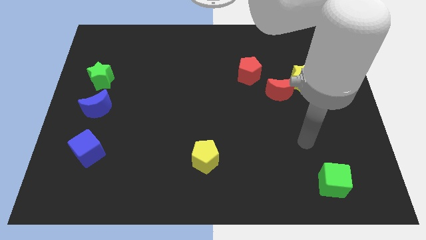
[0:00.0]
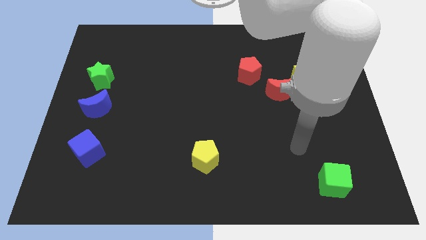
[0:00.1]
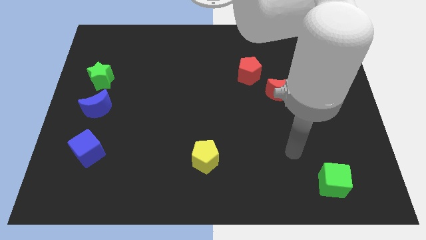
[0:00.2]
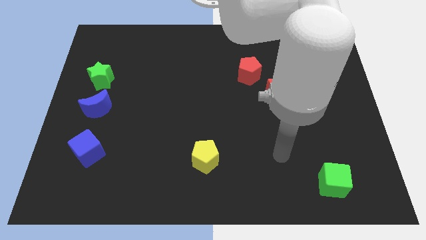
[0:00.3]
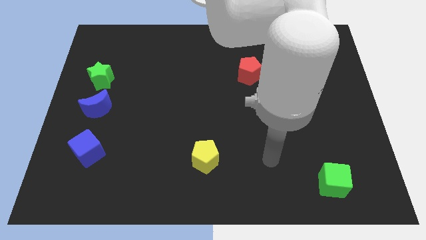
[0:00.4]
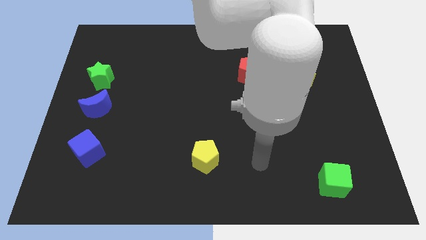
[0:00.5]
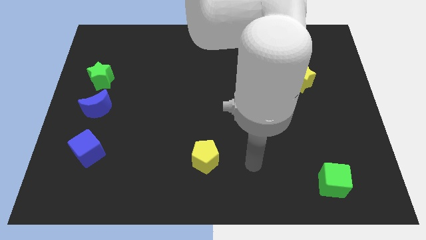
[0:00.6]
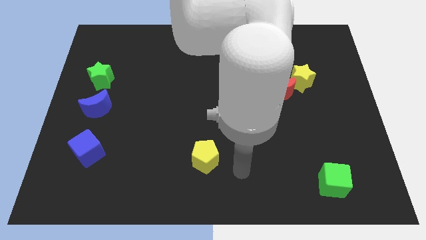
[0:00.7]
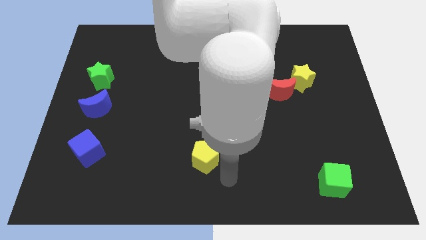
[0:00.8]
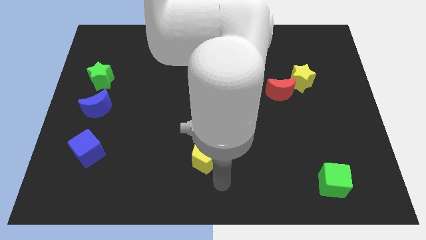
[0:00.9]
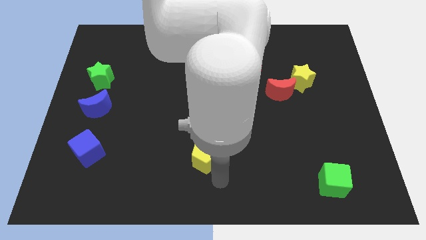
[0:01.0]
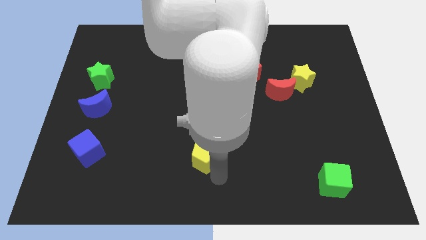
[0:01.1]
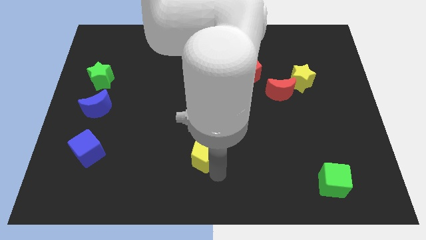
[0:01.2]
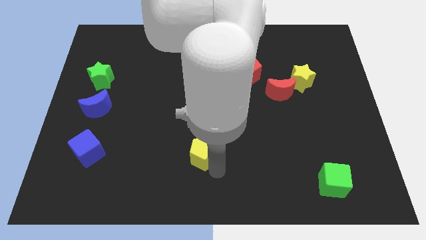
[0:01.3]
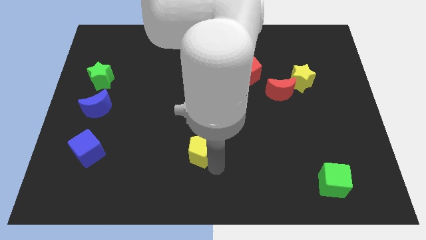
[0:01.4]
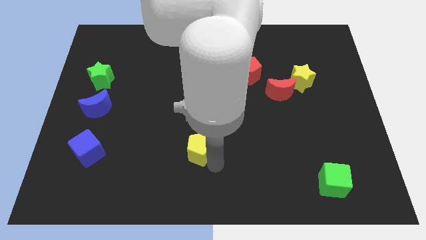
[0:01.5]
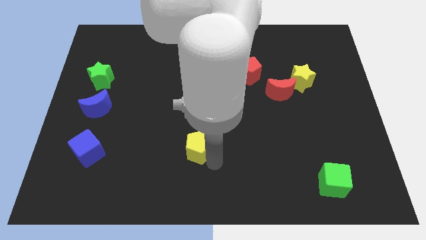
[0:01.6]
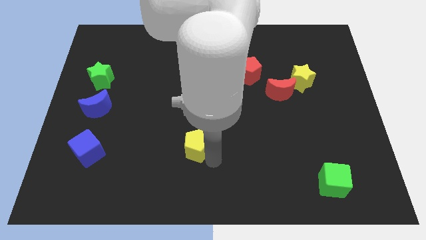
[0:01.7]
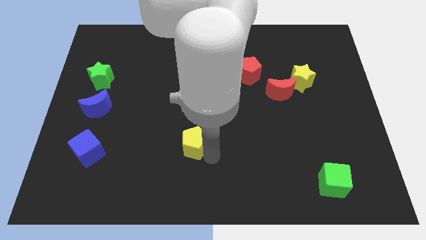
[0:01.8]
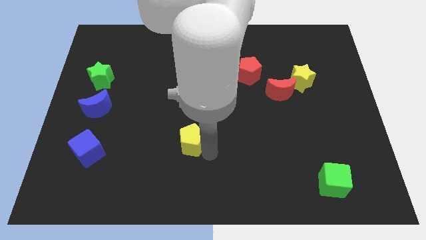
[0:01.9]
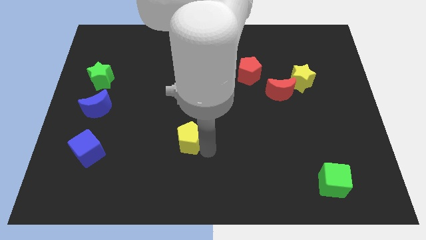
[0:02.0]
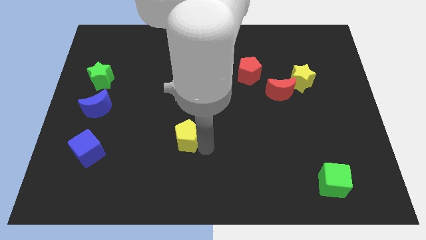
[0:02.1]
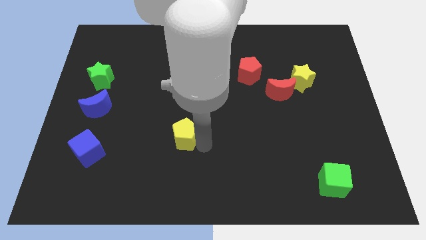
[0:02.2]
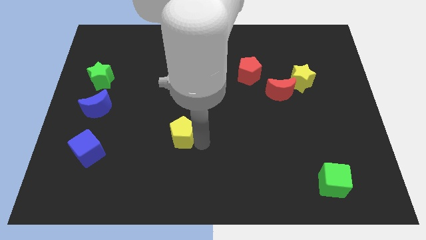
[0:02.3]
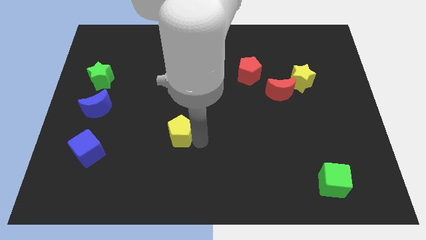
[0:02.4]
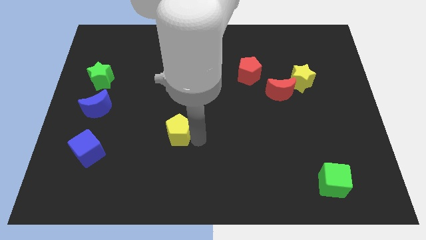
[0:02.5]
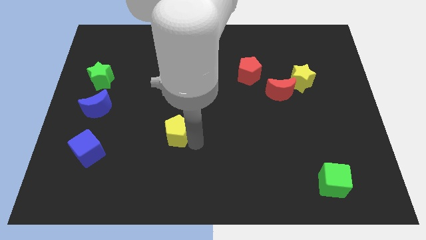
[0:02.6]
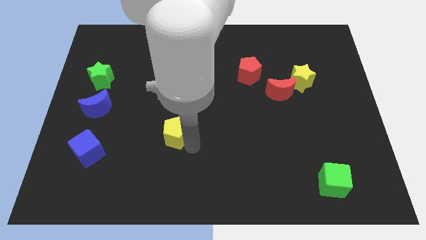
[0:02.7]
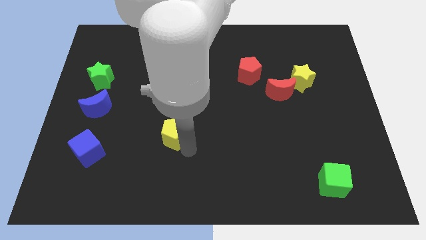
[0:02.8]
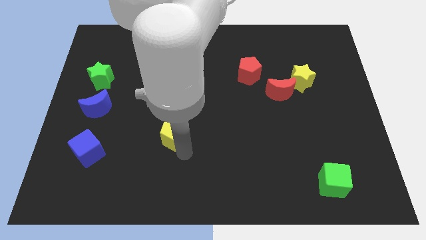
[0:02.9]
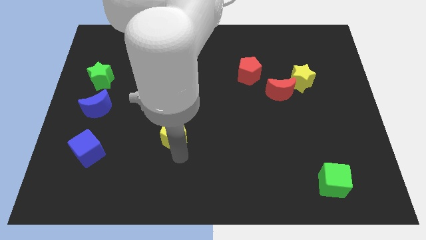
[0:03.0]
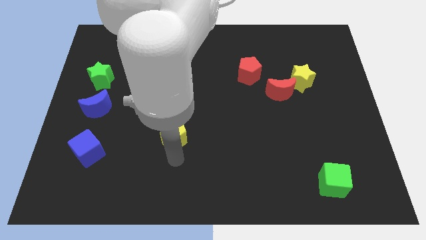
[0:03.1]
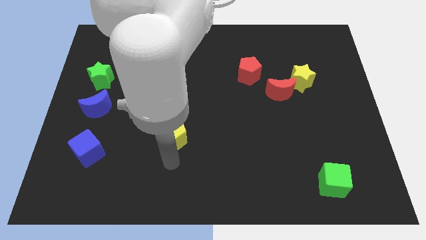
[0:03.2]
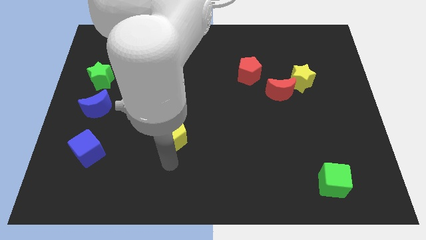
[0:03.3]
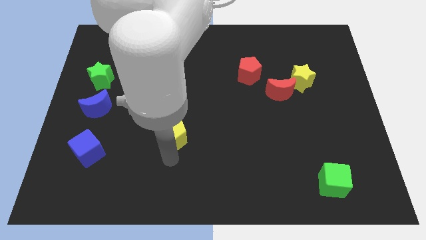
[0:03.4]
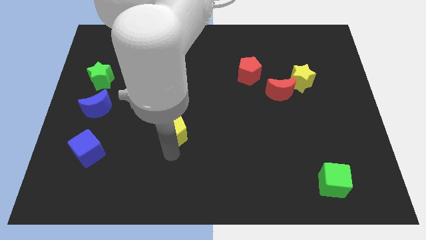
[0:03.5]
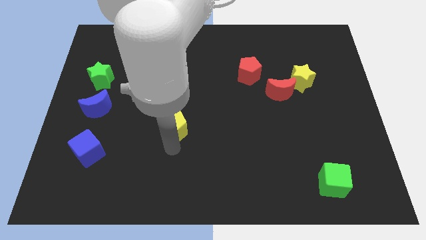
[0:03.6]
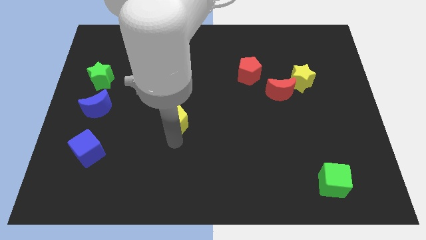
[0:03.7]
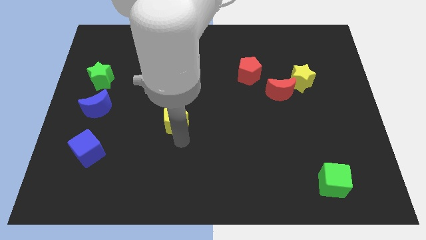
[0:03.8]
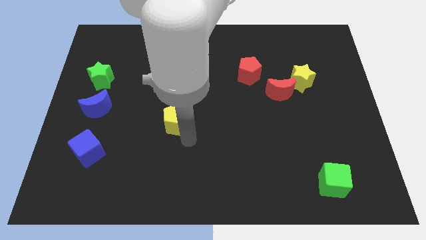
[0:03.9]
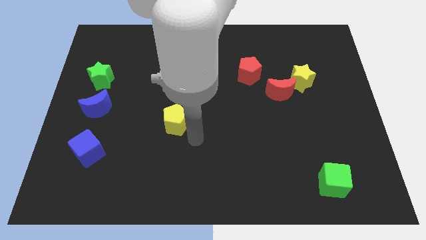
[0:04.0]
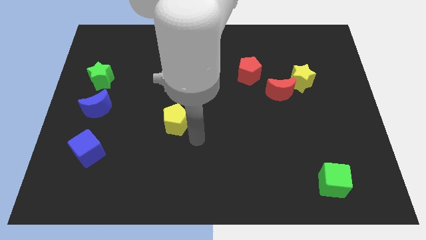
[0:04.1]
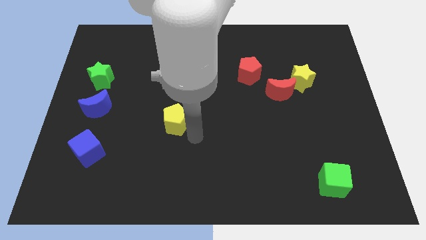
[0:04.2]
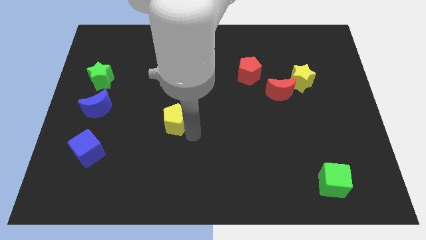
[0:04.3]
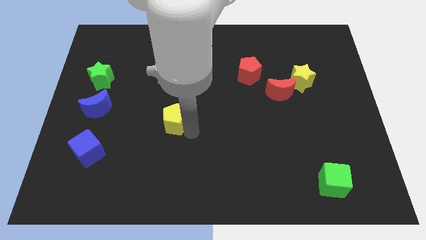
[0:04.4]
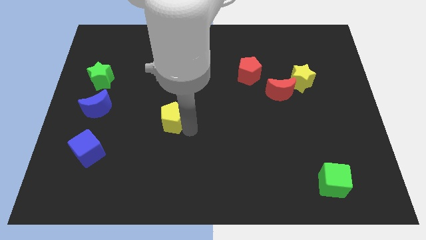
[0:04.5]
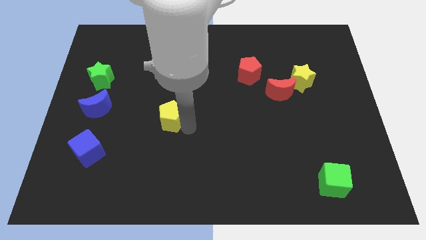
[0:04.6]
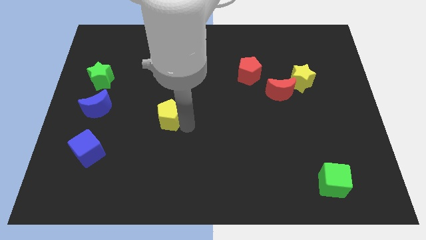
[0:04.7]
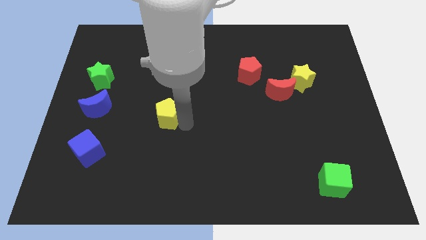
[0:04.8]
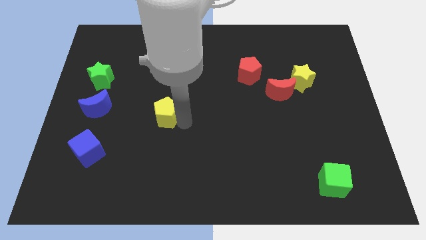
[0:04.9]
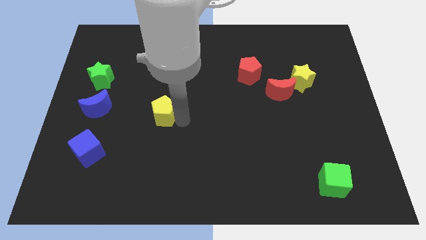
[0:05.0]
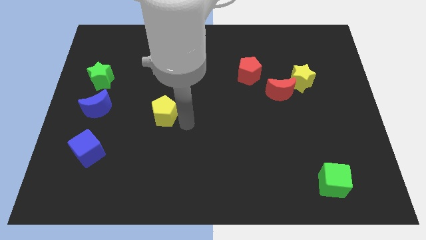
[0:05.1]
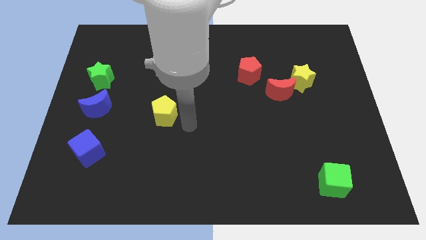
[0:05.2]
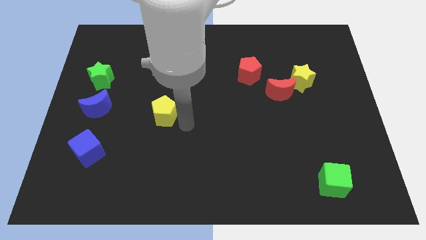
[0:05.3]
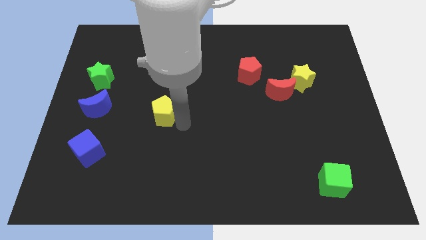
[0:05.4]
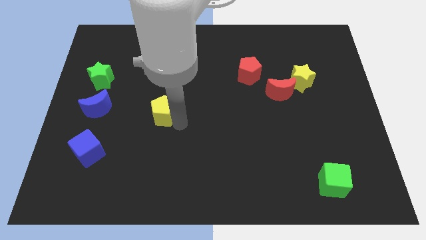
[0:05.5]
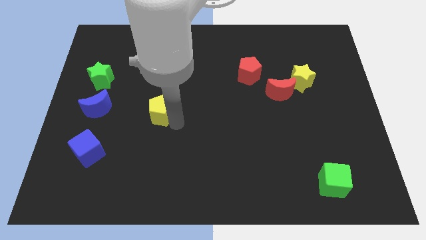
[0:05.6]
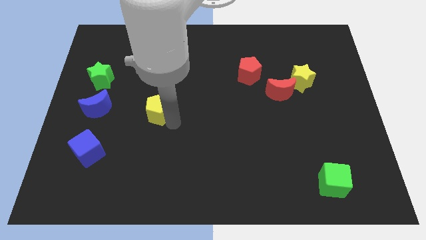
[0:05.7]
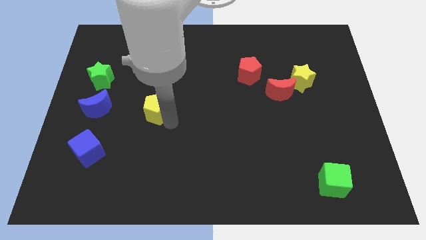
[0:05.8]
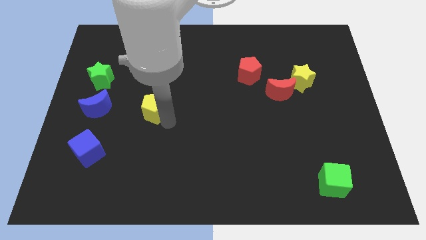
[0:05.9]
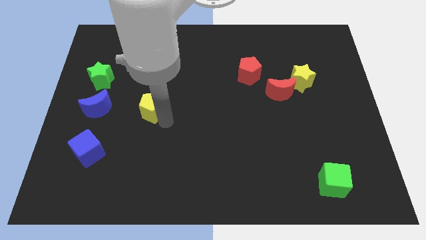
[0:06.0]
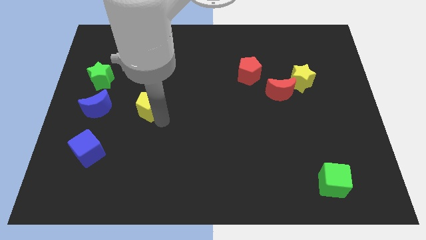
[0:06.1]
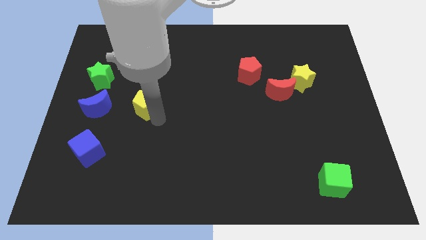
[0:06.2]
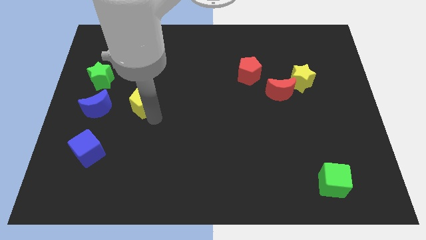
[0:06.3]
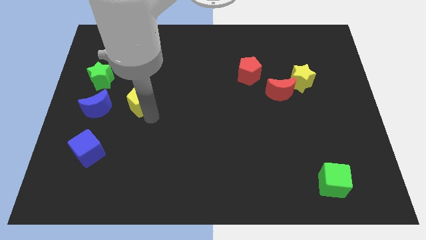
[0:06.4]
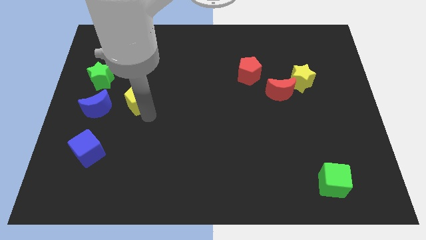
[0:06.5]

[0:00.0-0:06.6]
put the yellow pentagon to the bottom right of the green star

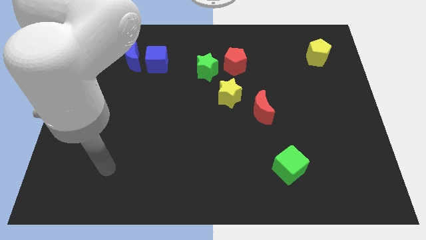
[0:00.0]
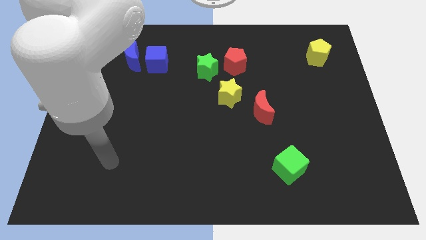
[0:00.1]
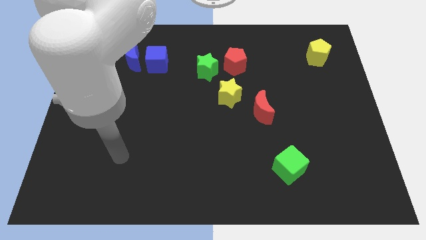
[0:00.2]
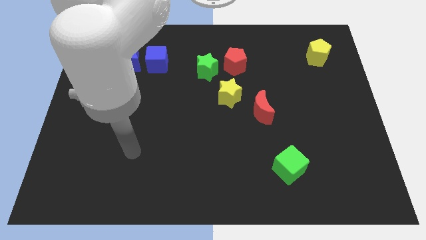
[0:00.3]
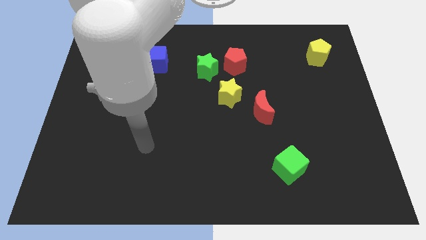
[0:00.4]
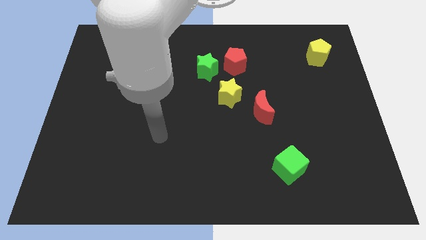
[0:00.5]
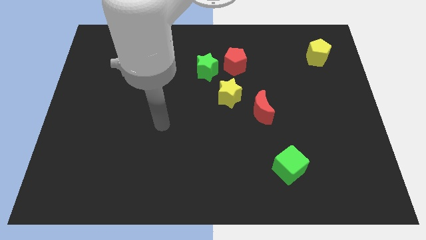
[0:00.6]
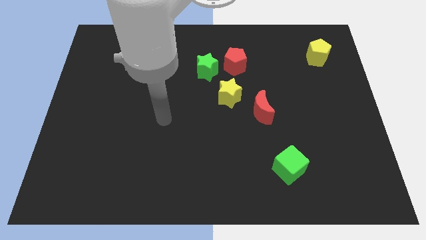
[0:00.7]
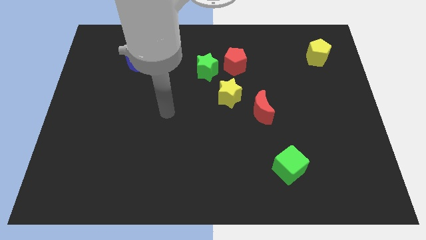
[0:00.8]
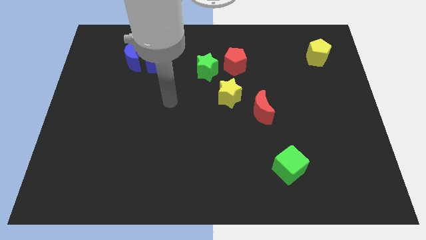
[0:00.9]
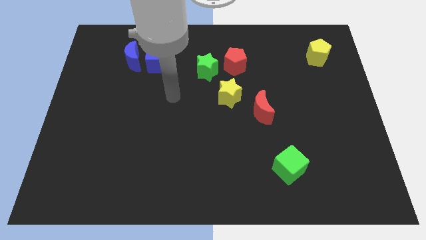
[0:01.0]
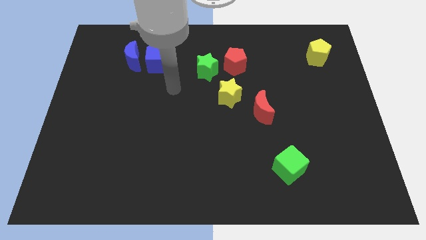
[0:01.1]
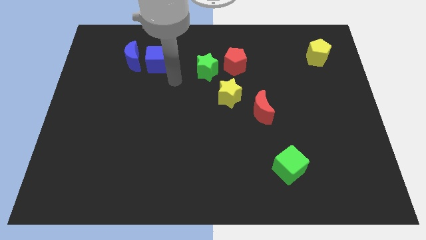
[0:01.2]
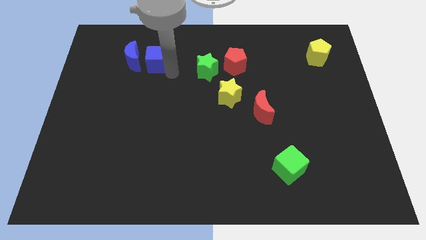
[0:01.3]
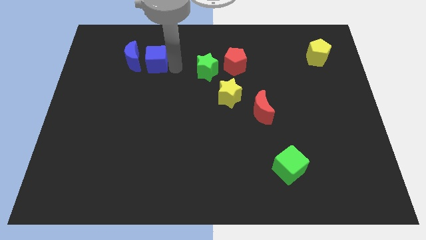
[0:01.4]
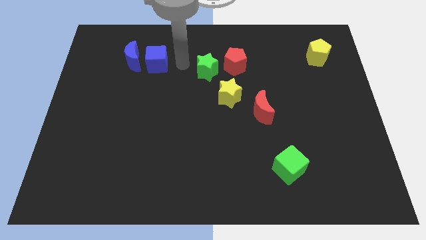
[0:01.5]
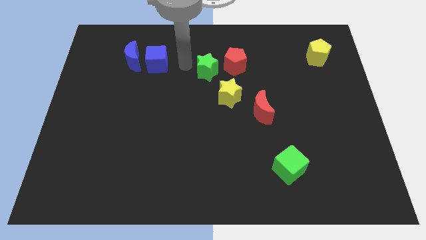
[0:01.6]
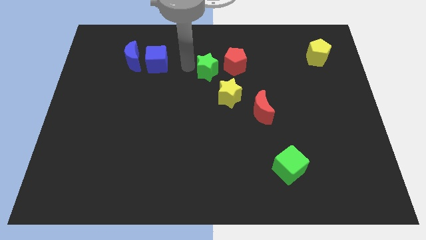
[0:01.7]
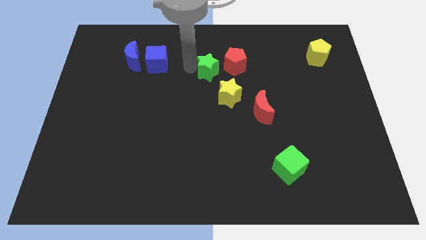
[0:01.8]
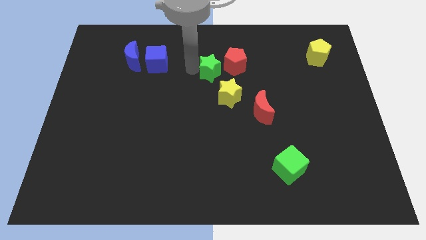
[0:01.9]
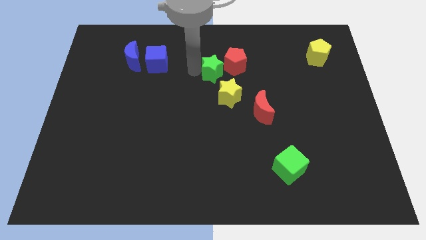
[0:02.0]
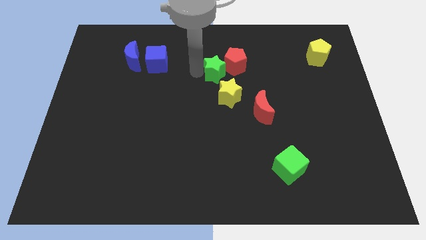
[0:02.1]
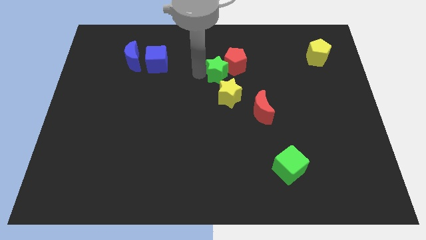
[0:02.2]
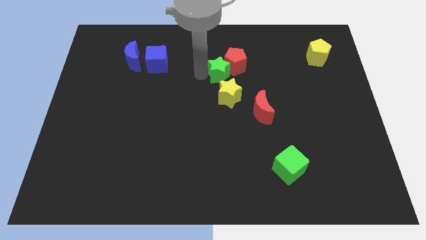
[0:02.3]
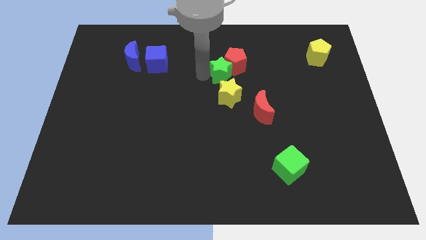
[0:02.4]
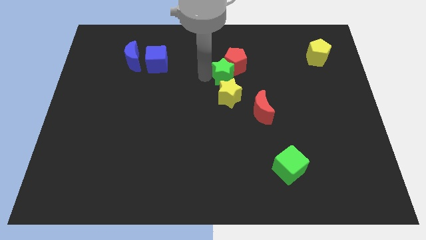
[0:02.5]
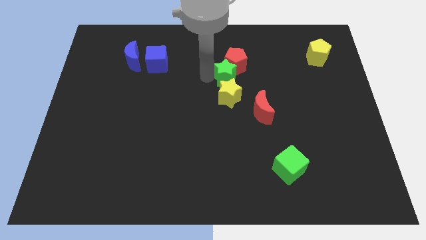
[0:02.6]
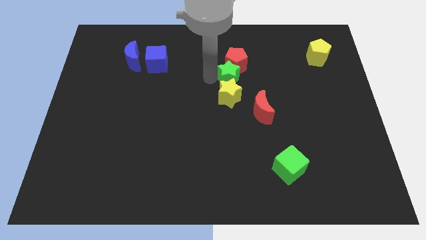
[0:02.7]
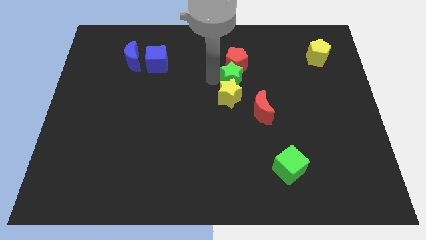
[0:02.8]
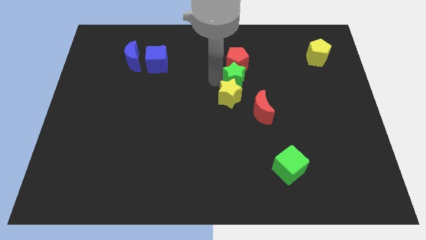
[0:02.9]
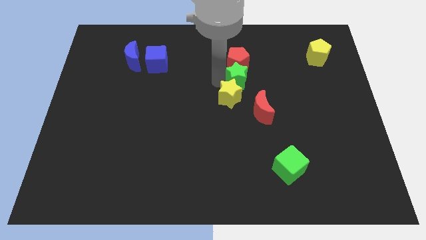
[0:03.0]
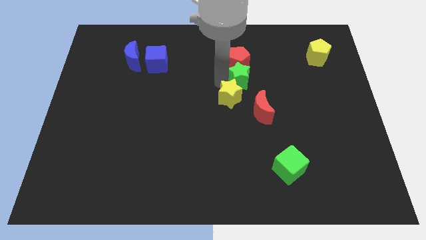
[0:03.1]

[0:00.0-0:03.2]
put the green star to the top of the red moon
